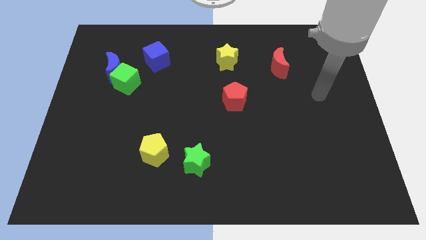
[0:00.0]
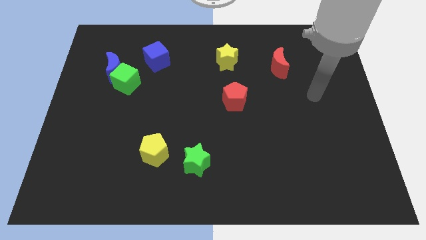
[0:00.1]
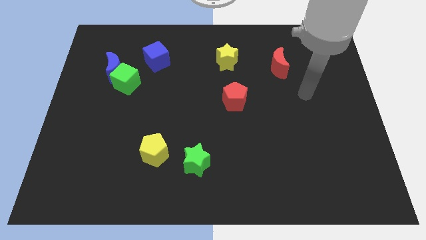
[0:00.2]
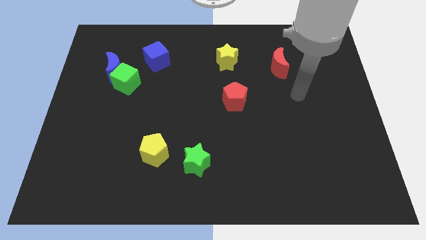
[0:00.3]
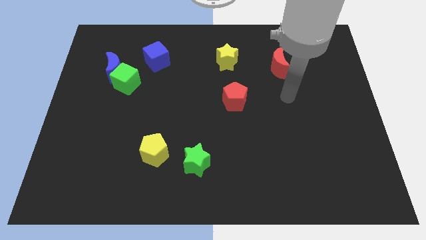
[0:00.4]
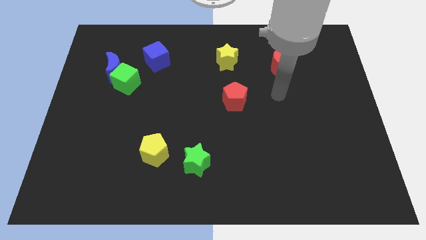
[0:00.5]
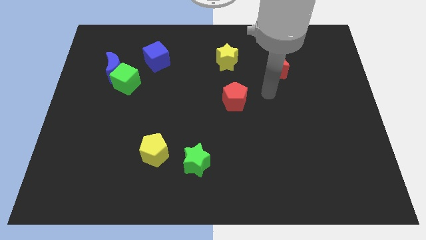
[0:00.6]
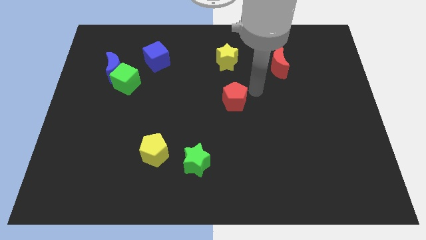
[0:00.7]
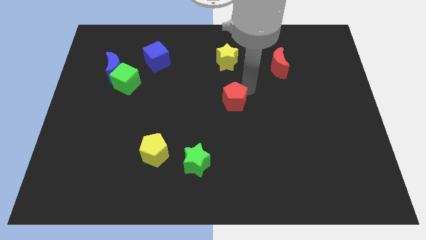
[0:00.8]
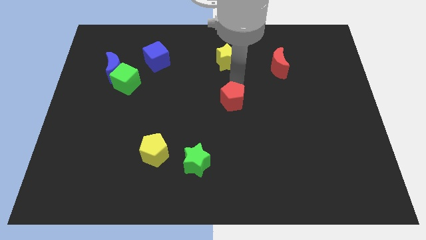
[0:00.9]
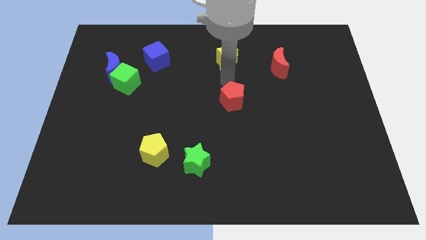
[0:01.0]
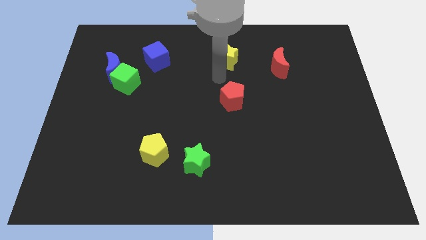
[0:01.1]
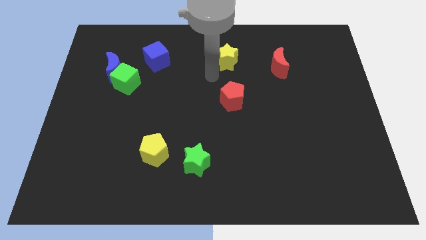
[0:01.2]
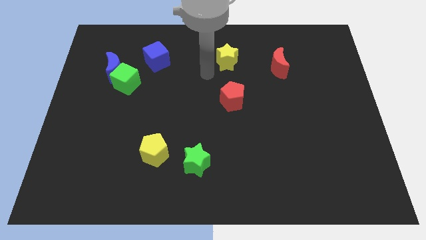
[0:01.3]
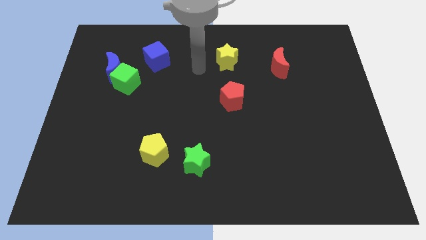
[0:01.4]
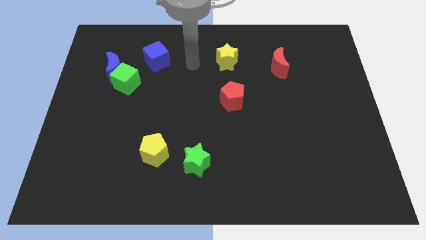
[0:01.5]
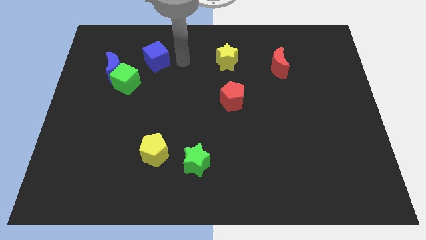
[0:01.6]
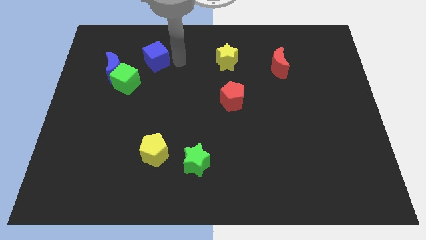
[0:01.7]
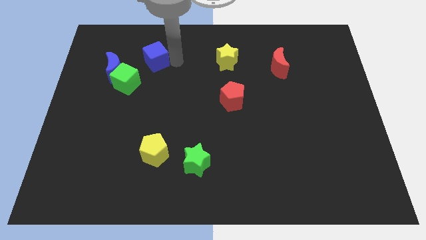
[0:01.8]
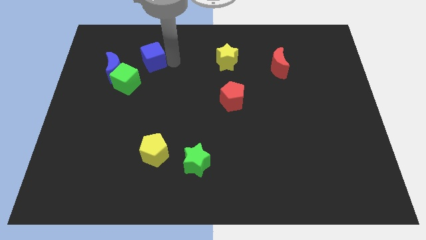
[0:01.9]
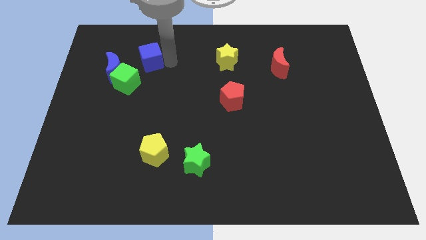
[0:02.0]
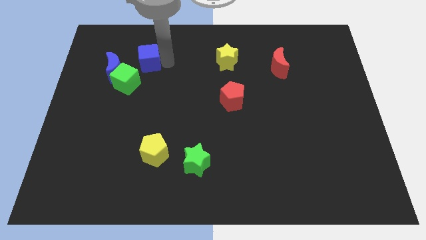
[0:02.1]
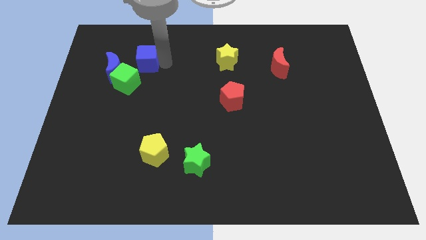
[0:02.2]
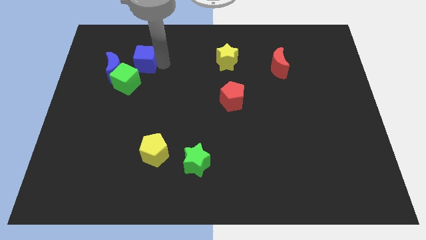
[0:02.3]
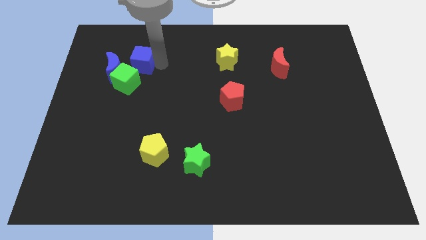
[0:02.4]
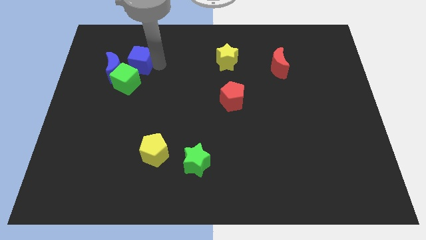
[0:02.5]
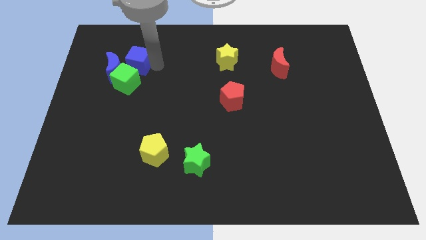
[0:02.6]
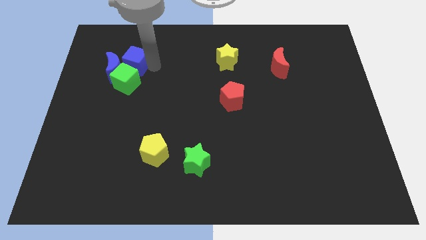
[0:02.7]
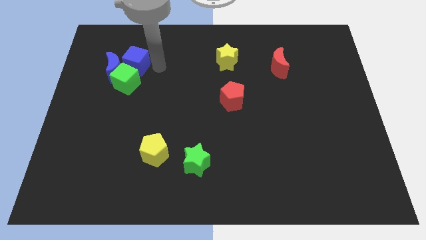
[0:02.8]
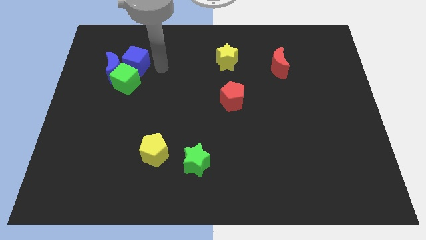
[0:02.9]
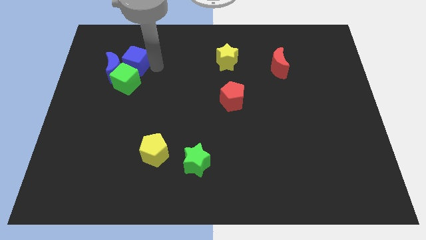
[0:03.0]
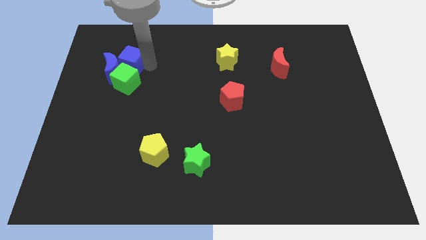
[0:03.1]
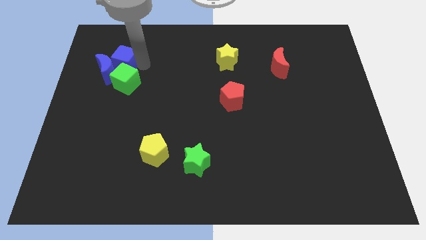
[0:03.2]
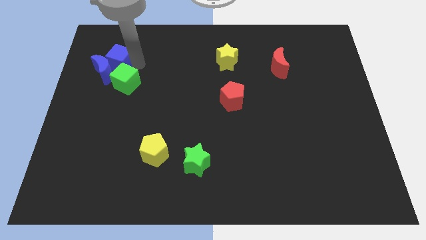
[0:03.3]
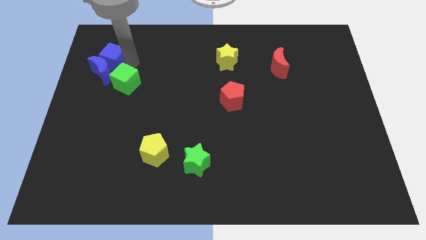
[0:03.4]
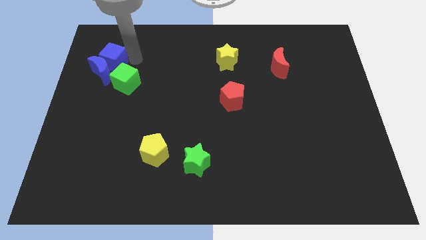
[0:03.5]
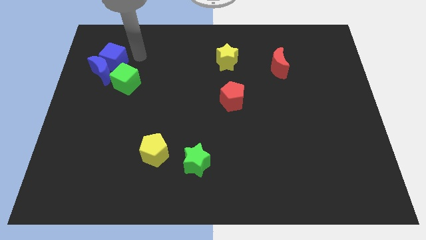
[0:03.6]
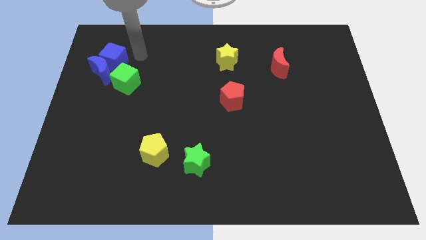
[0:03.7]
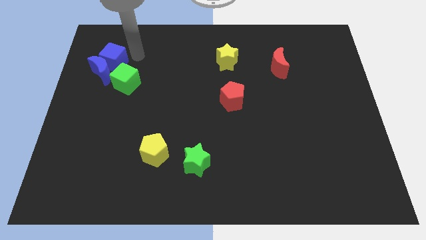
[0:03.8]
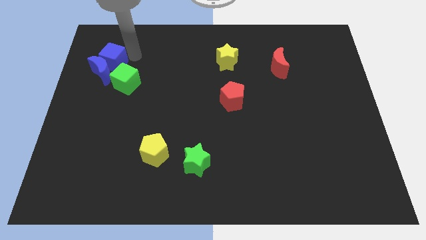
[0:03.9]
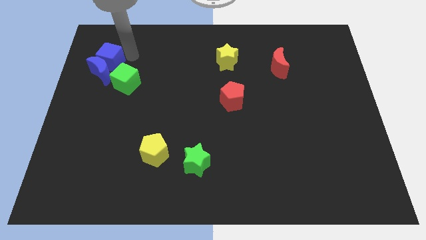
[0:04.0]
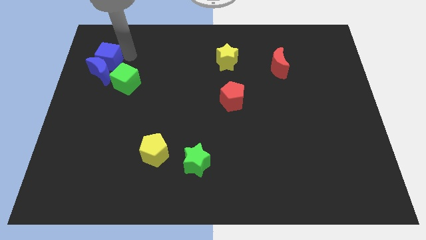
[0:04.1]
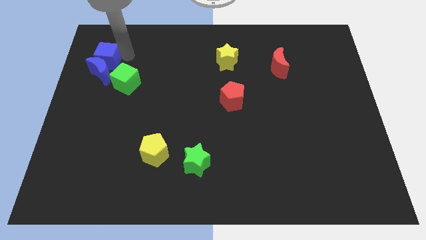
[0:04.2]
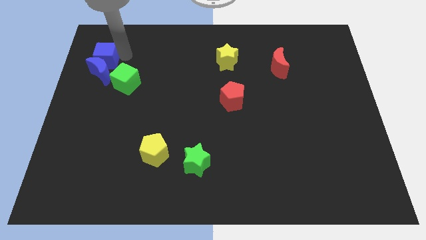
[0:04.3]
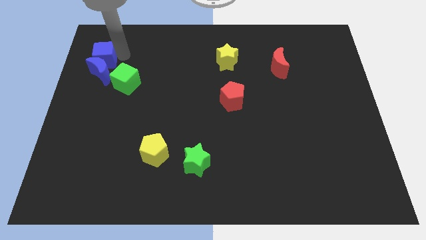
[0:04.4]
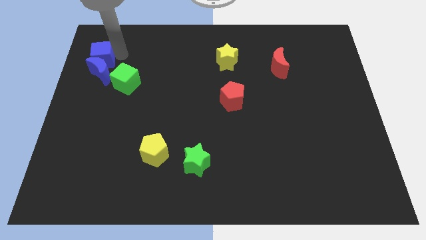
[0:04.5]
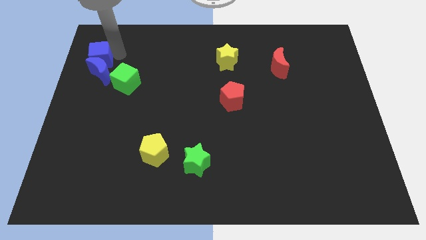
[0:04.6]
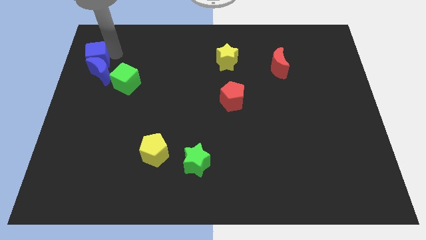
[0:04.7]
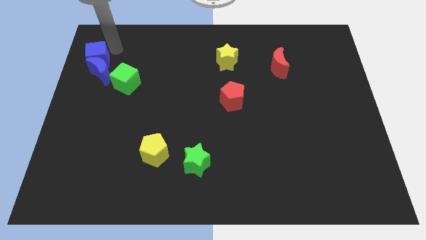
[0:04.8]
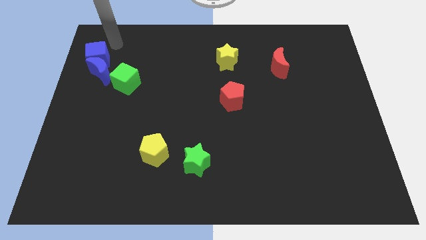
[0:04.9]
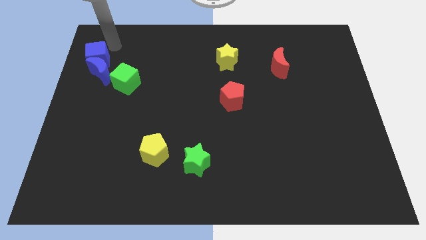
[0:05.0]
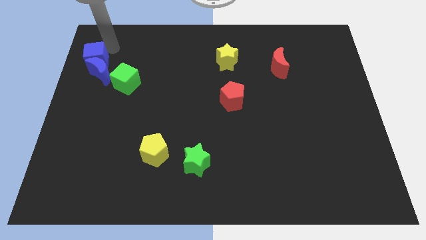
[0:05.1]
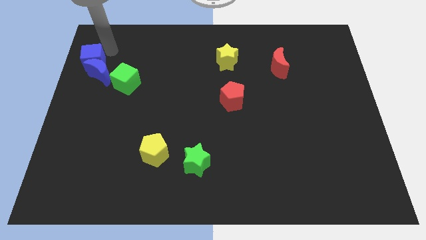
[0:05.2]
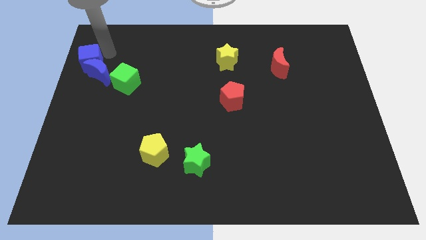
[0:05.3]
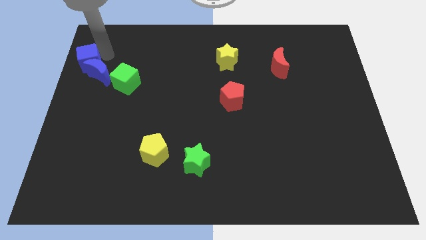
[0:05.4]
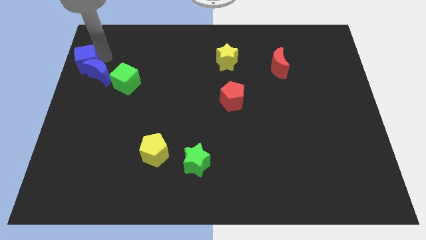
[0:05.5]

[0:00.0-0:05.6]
slide the blue cube to the left side of the board
